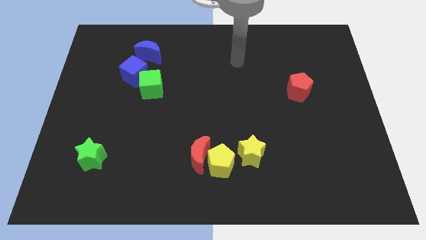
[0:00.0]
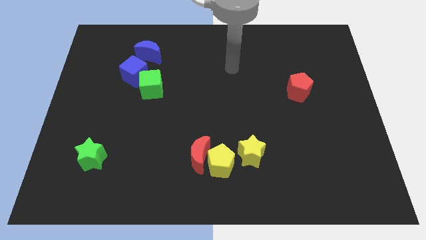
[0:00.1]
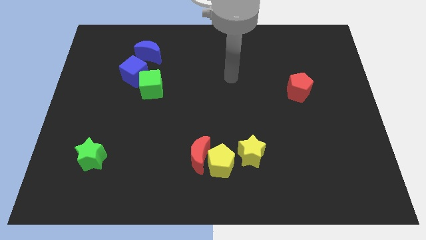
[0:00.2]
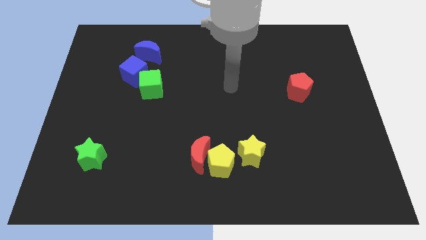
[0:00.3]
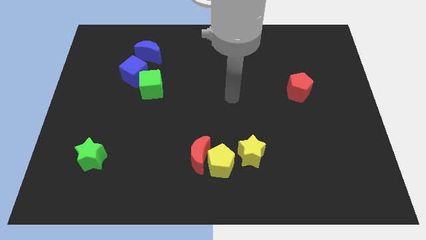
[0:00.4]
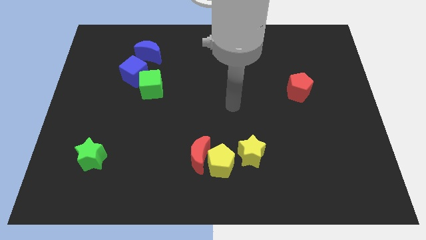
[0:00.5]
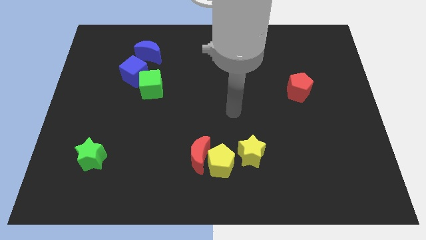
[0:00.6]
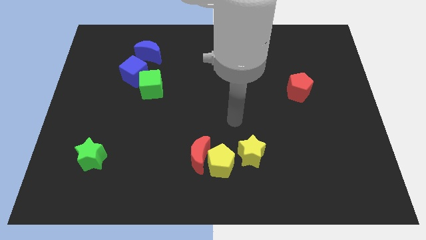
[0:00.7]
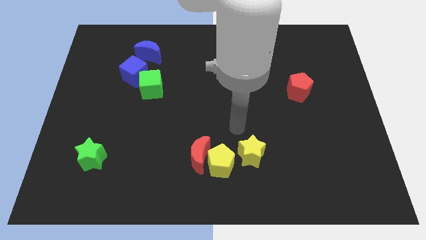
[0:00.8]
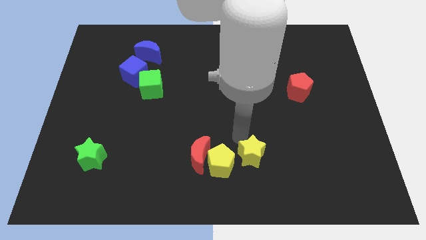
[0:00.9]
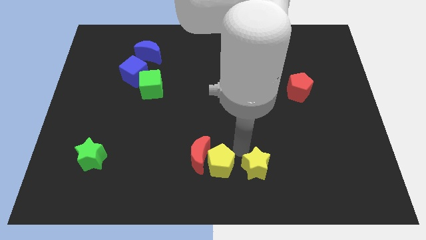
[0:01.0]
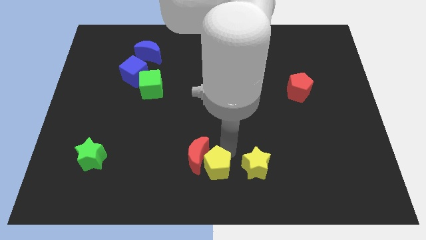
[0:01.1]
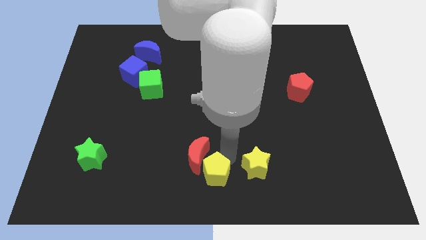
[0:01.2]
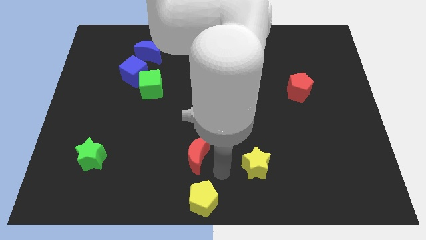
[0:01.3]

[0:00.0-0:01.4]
move the red moon away from the yellow pentagon

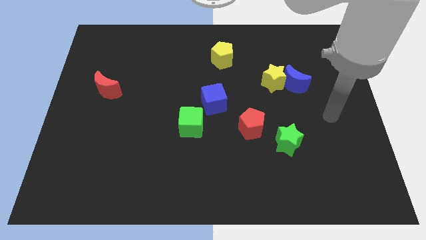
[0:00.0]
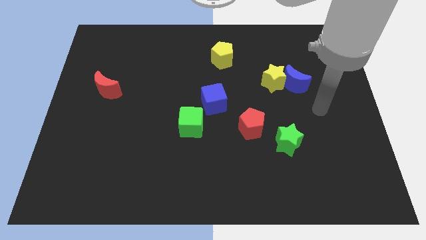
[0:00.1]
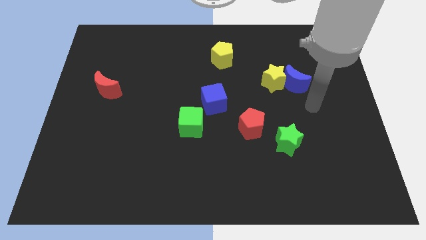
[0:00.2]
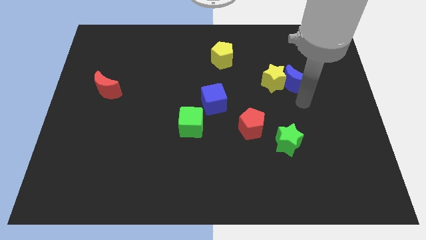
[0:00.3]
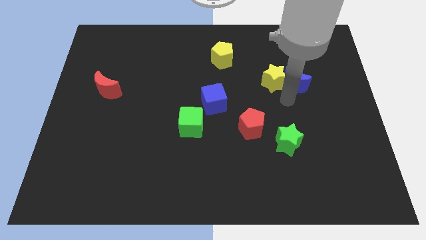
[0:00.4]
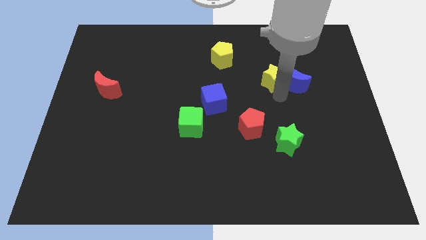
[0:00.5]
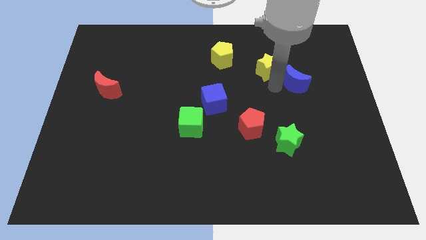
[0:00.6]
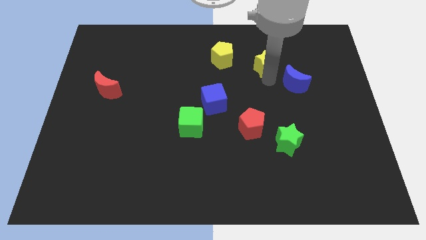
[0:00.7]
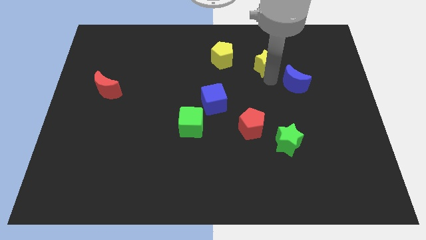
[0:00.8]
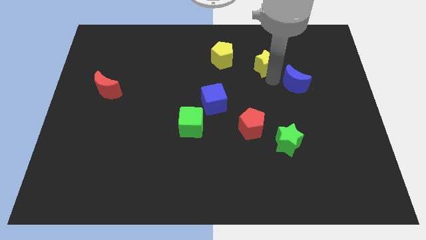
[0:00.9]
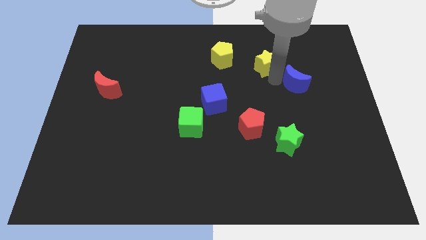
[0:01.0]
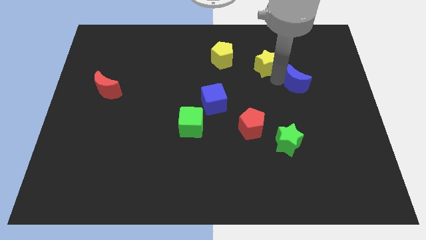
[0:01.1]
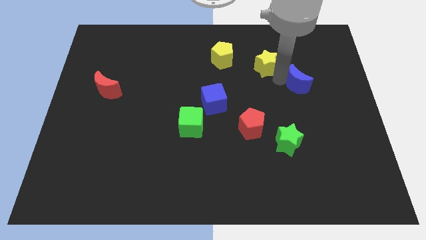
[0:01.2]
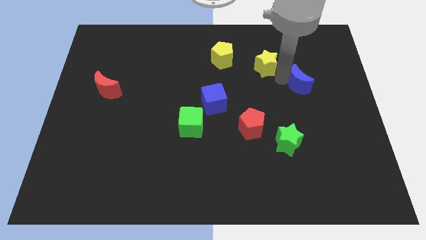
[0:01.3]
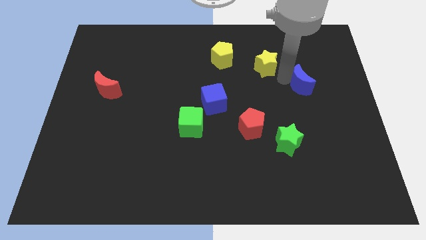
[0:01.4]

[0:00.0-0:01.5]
move the blue moon away from the yellow star

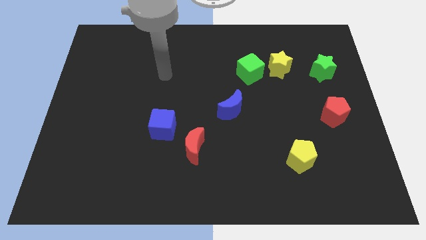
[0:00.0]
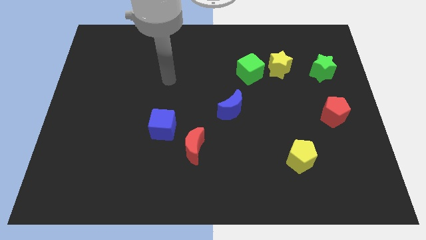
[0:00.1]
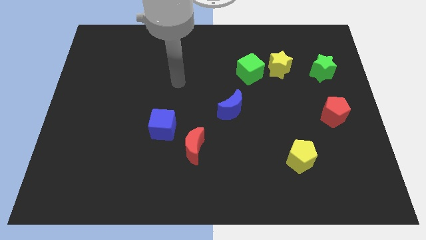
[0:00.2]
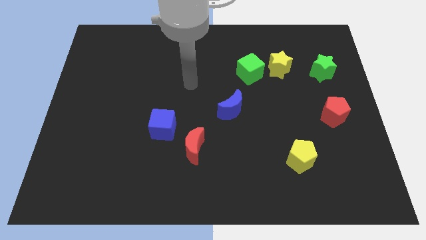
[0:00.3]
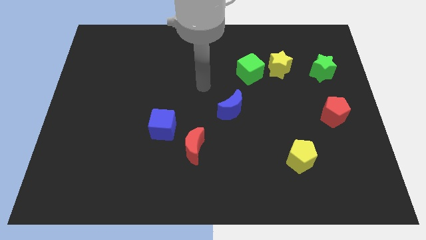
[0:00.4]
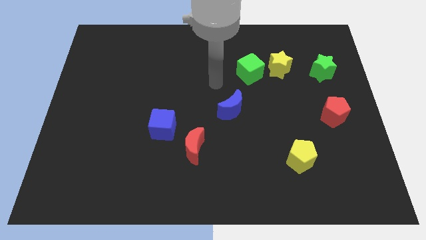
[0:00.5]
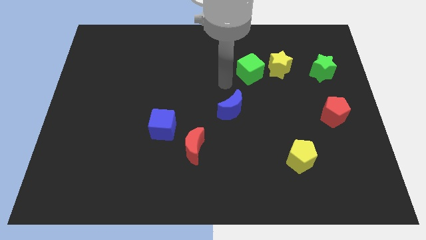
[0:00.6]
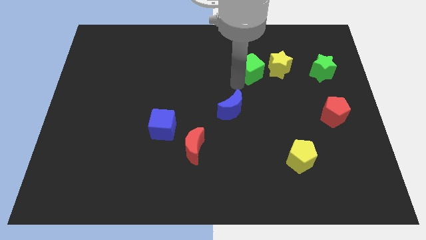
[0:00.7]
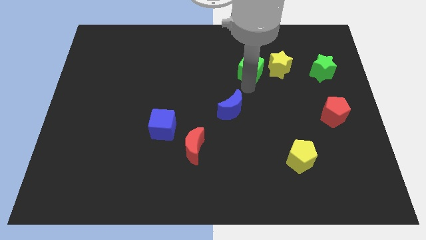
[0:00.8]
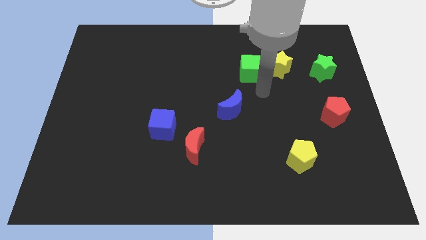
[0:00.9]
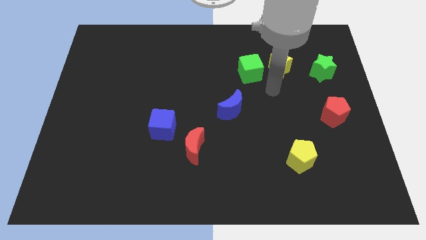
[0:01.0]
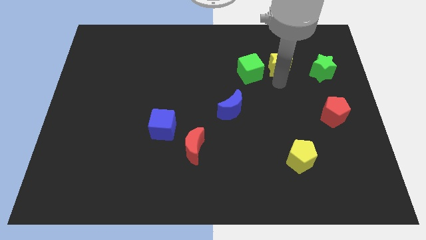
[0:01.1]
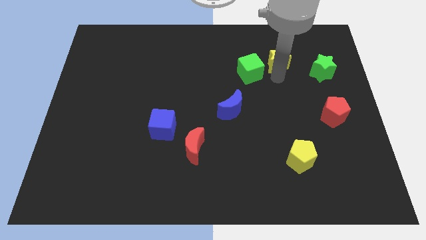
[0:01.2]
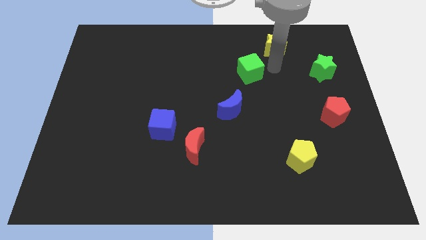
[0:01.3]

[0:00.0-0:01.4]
pull the green cube apart from the yellow star

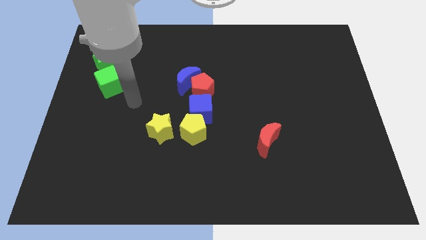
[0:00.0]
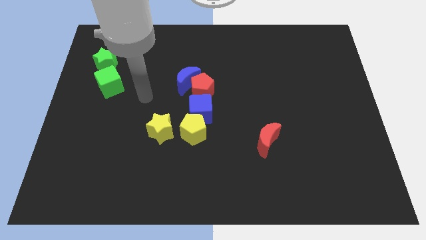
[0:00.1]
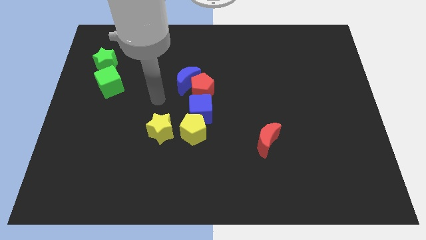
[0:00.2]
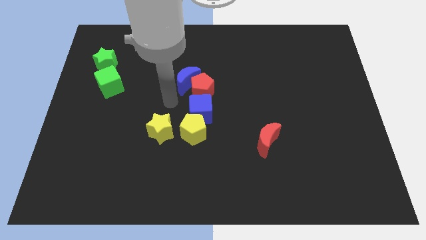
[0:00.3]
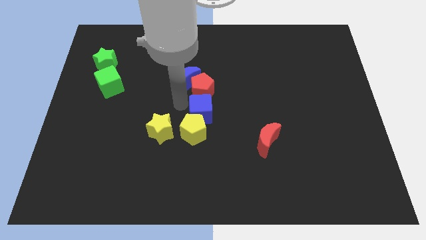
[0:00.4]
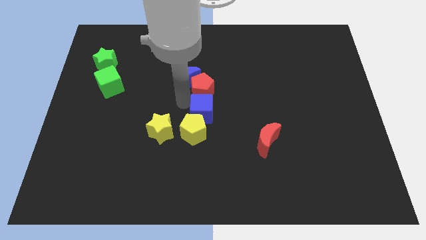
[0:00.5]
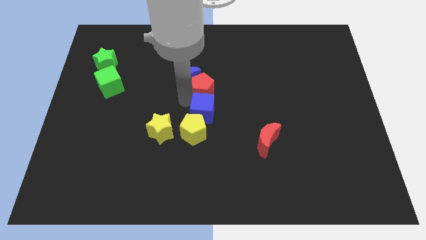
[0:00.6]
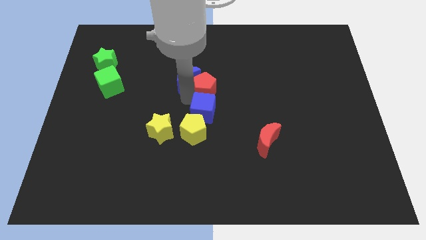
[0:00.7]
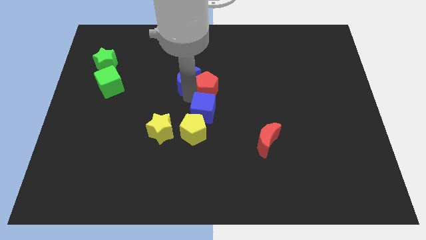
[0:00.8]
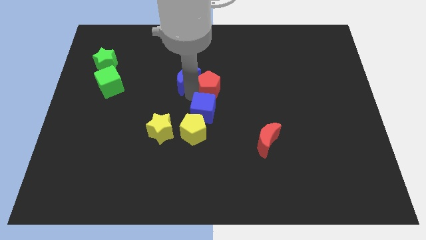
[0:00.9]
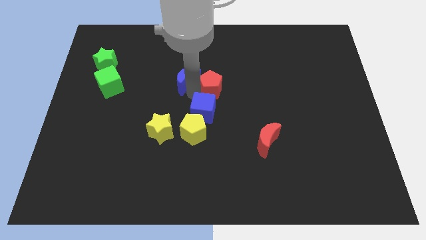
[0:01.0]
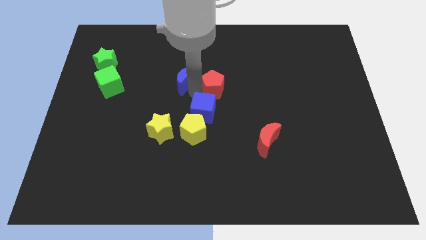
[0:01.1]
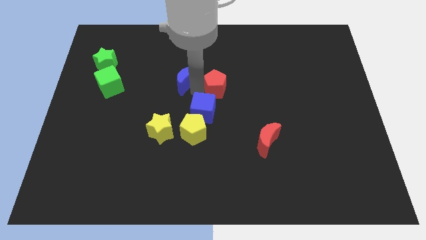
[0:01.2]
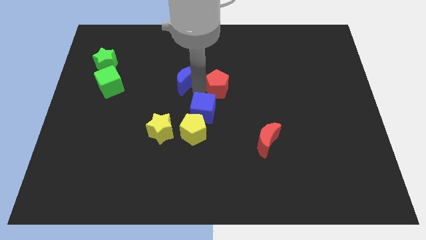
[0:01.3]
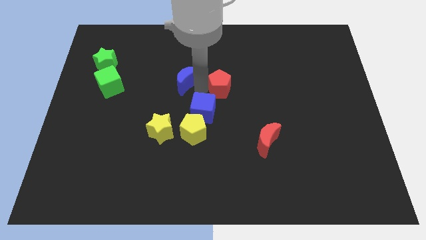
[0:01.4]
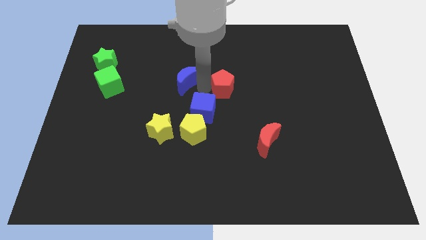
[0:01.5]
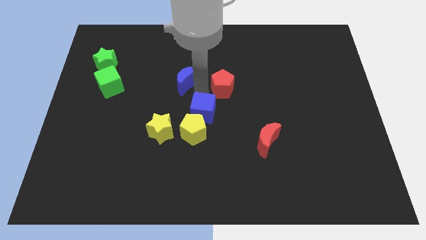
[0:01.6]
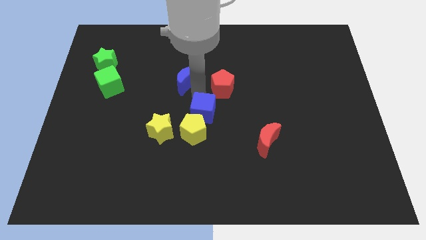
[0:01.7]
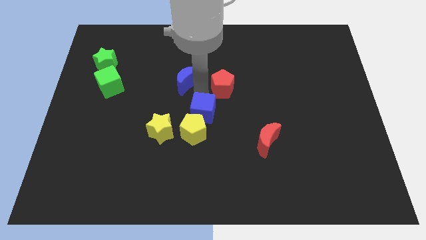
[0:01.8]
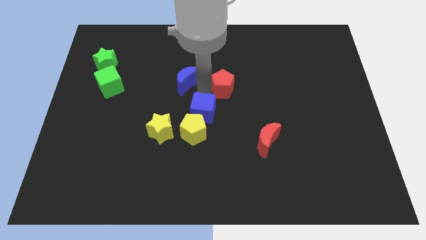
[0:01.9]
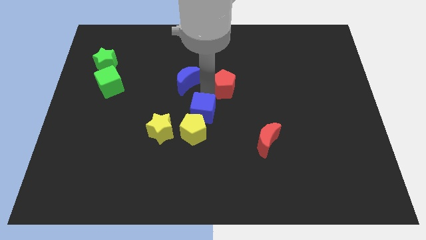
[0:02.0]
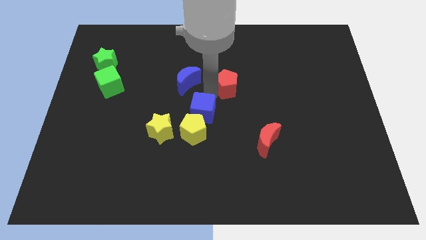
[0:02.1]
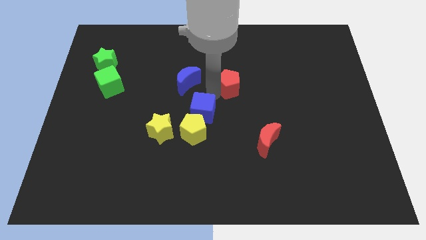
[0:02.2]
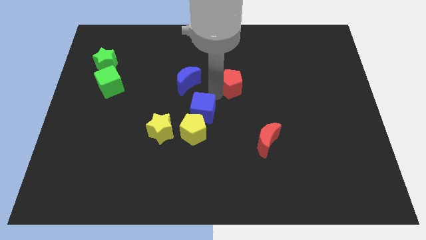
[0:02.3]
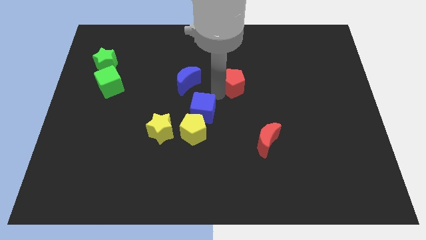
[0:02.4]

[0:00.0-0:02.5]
pull the red pentagon apart from the blue moon and blue cube

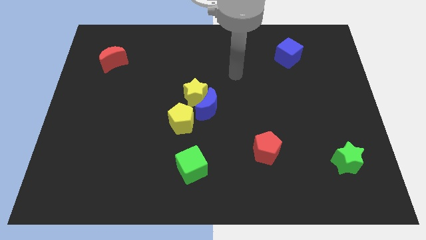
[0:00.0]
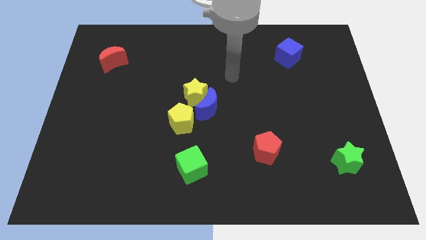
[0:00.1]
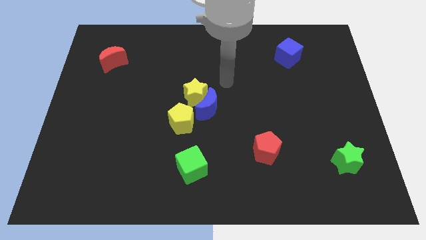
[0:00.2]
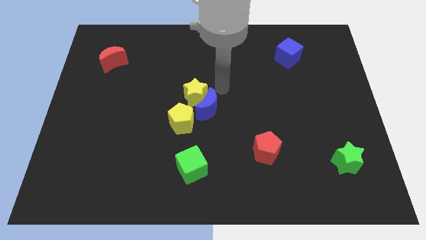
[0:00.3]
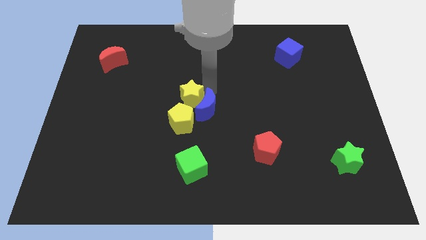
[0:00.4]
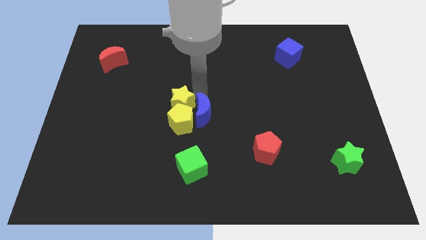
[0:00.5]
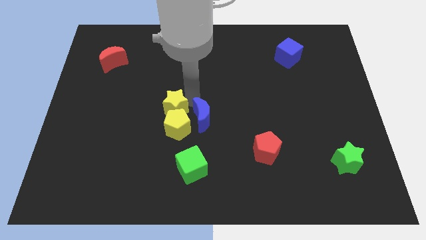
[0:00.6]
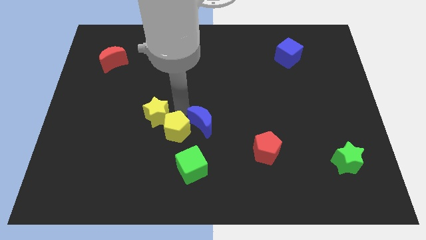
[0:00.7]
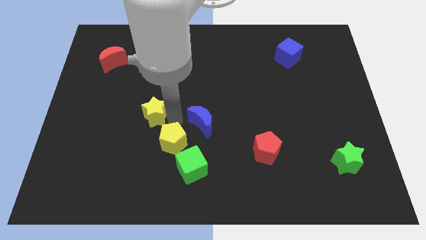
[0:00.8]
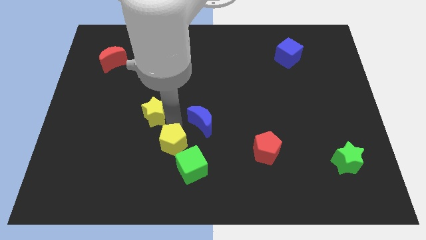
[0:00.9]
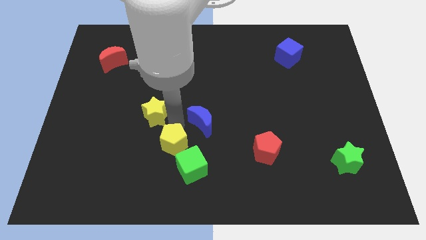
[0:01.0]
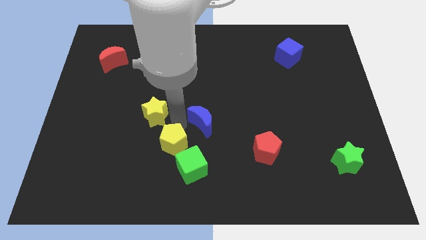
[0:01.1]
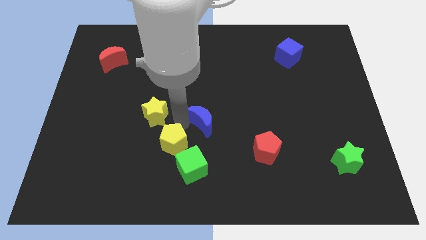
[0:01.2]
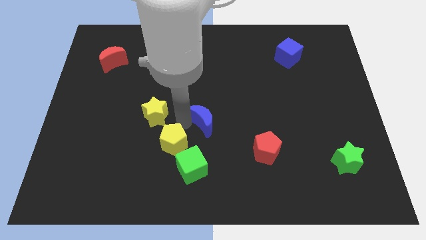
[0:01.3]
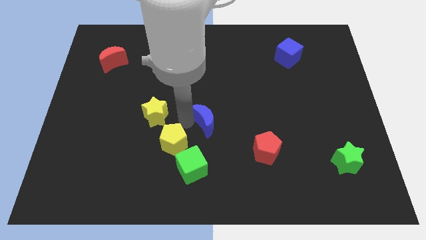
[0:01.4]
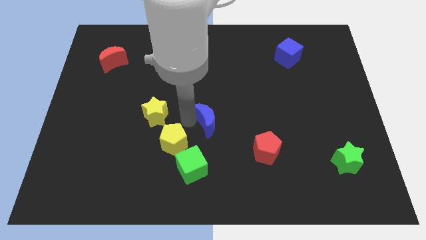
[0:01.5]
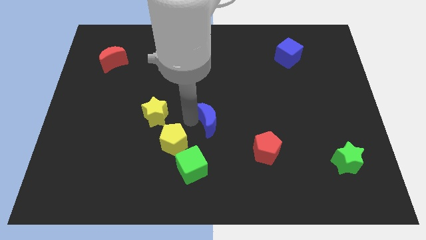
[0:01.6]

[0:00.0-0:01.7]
pull the blue moon apart from the yellow star and yellow pentagon

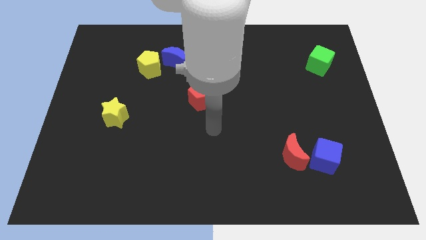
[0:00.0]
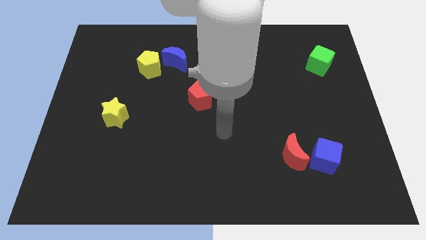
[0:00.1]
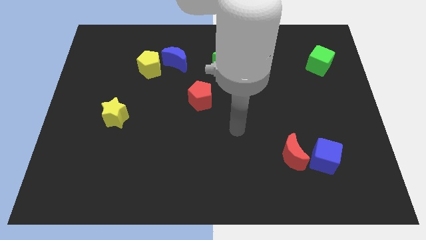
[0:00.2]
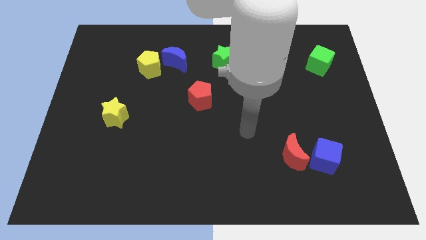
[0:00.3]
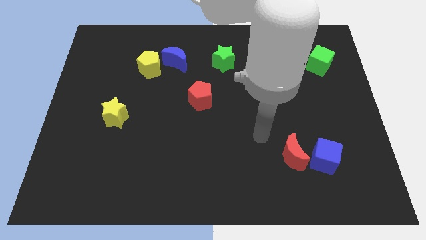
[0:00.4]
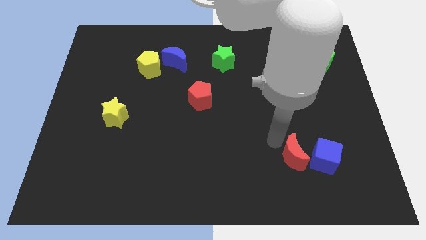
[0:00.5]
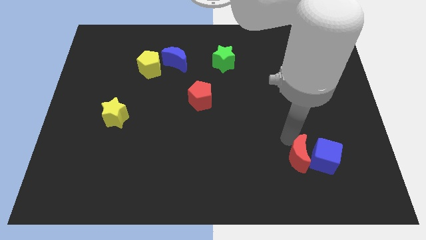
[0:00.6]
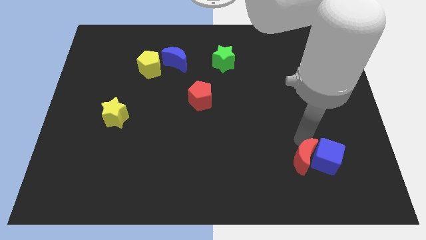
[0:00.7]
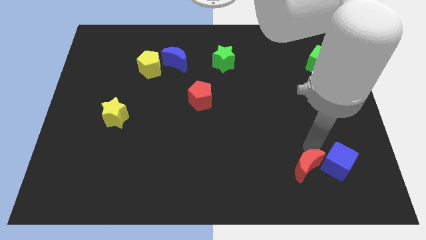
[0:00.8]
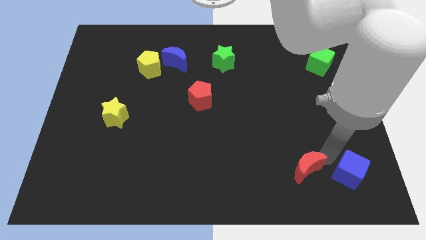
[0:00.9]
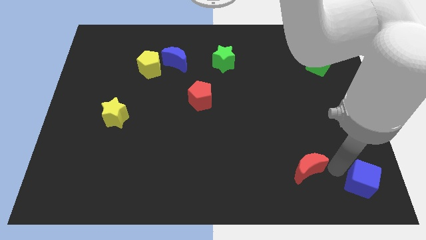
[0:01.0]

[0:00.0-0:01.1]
separate the red moon from the blue cube
